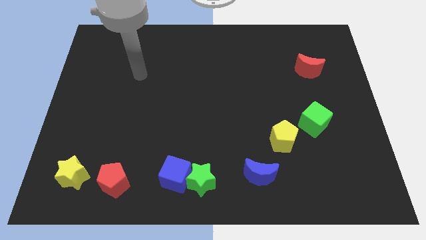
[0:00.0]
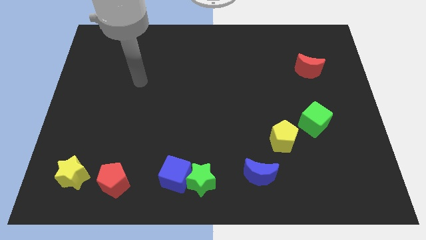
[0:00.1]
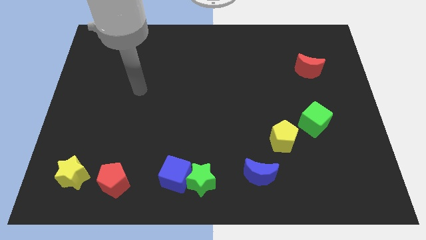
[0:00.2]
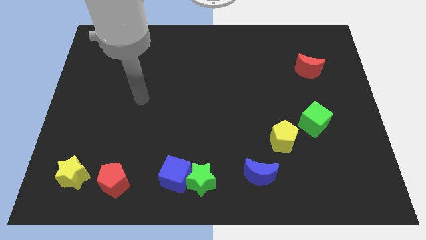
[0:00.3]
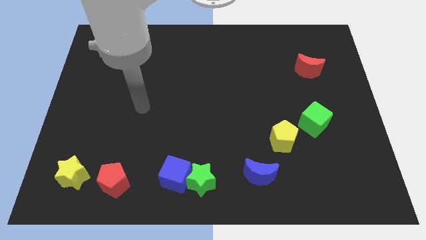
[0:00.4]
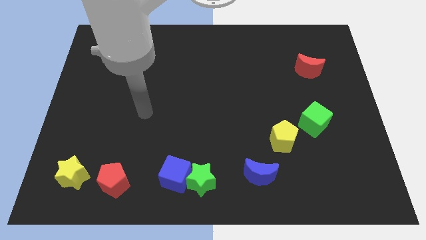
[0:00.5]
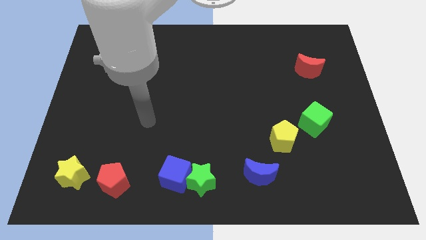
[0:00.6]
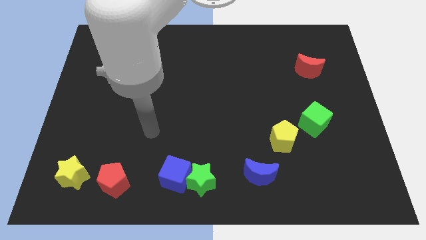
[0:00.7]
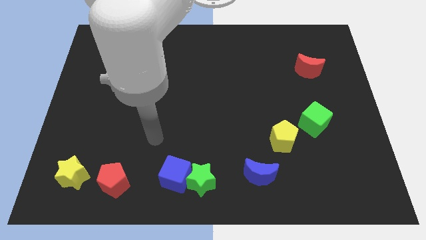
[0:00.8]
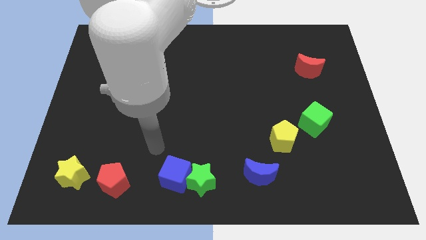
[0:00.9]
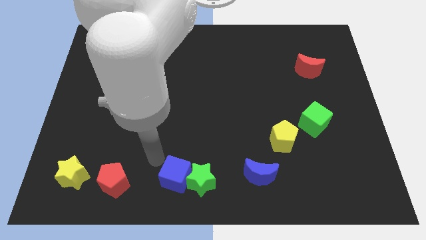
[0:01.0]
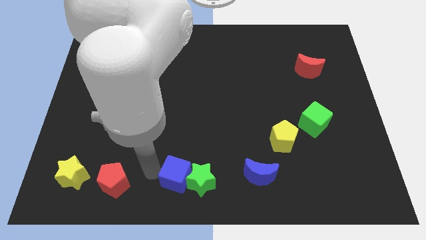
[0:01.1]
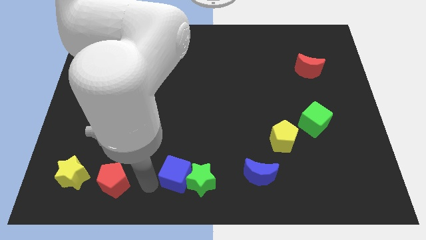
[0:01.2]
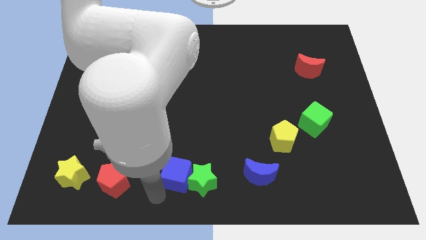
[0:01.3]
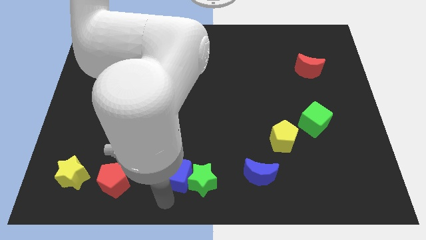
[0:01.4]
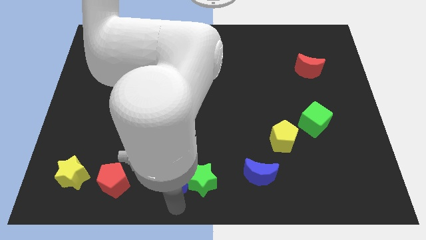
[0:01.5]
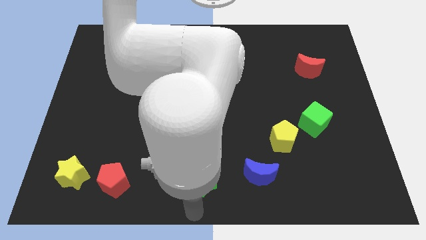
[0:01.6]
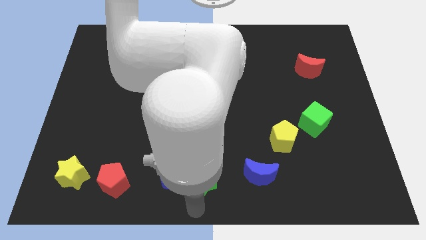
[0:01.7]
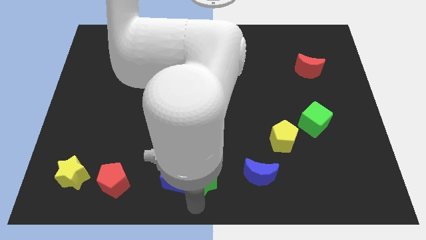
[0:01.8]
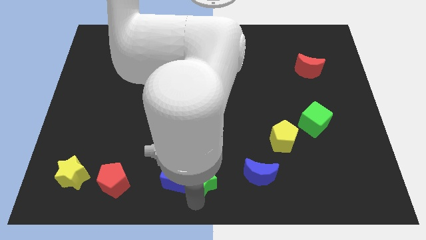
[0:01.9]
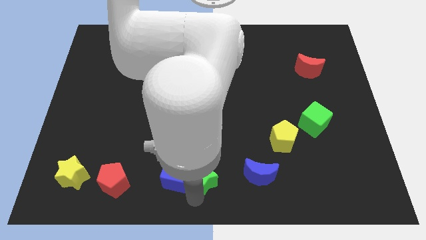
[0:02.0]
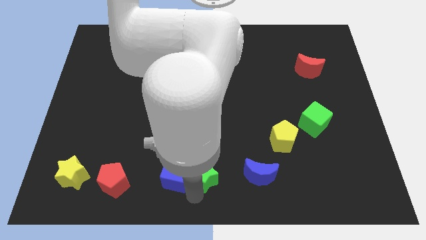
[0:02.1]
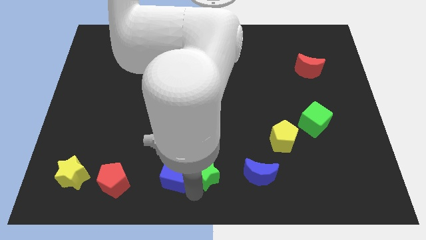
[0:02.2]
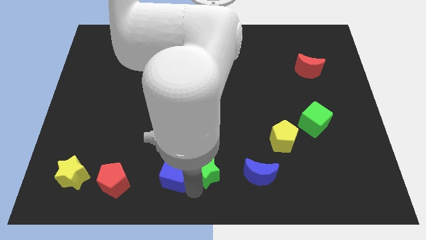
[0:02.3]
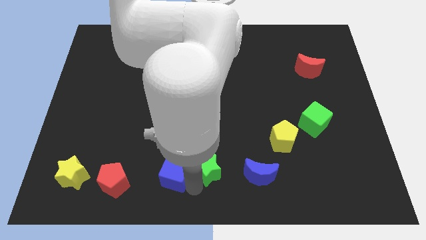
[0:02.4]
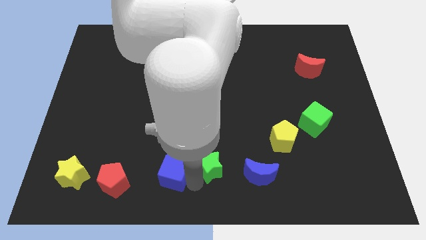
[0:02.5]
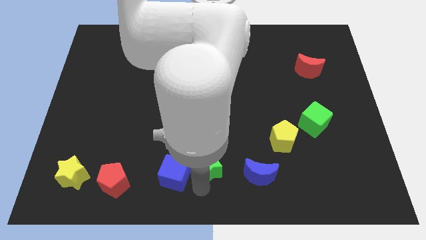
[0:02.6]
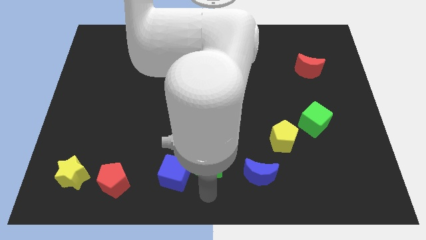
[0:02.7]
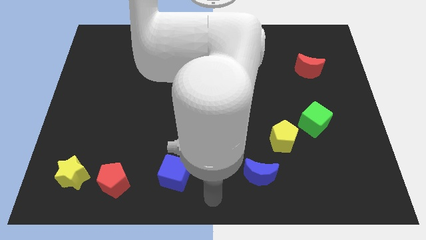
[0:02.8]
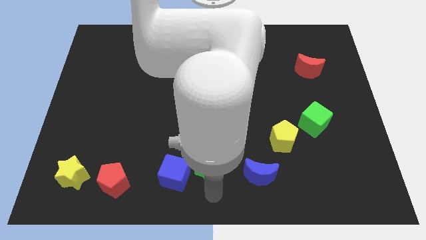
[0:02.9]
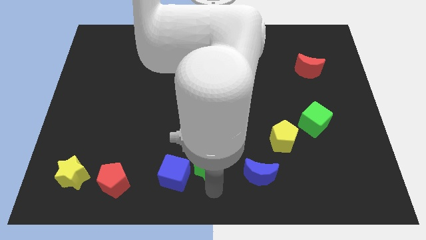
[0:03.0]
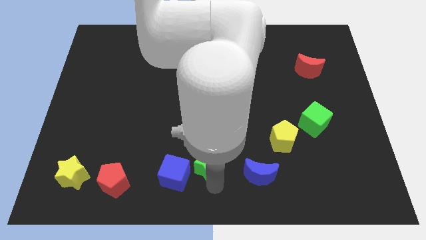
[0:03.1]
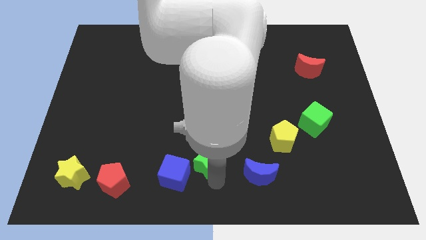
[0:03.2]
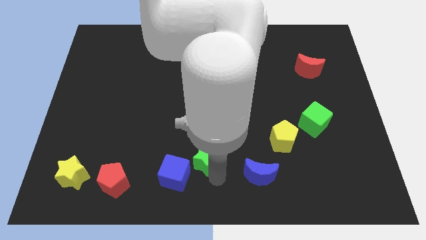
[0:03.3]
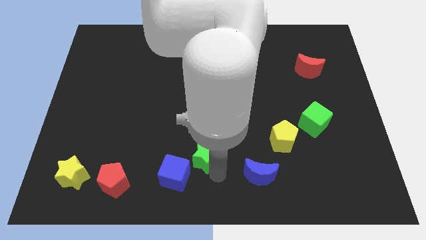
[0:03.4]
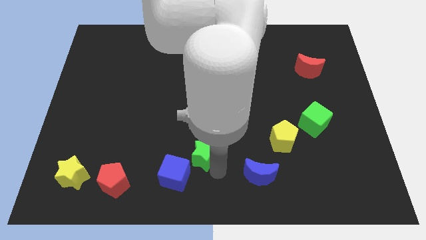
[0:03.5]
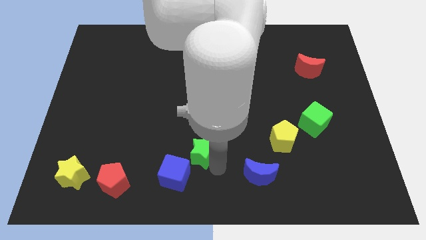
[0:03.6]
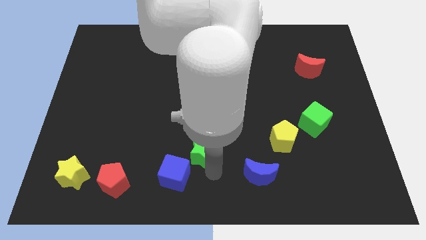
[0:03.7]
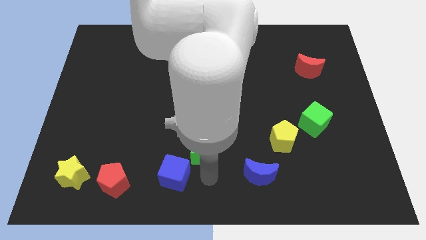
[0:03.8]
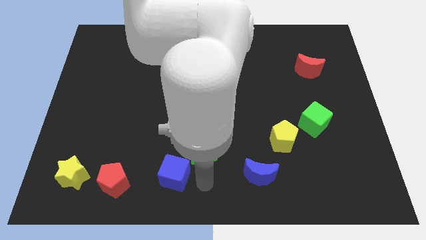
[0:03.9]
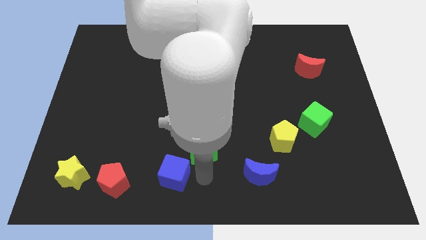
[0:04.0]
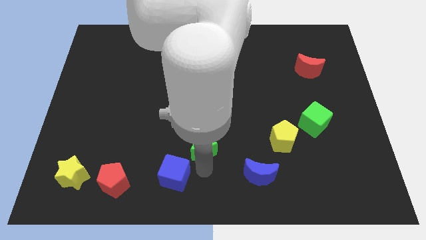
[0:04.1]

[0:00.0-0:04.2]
push the green star upwards a little

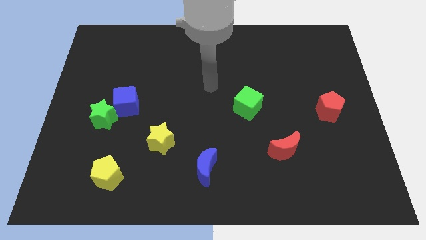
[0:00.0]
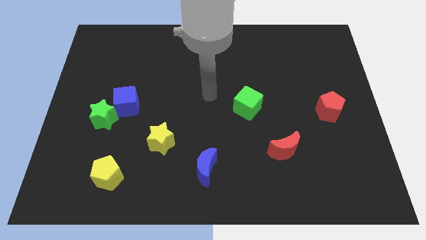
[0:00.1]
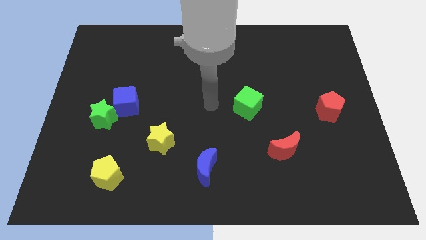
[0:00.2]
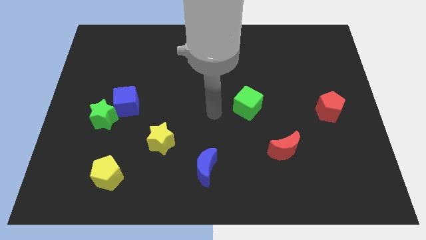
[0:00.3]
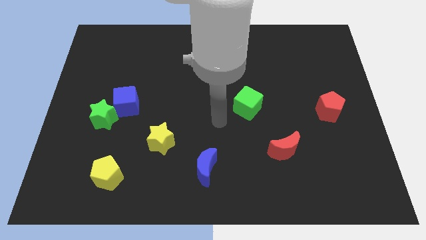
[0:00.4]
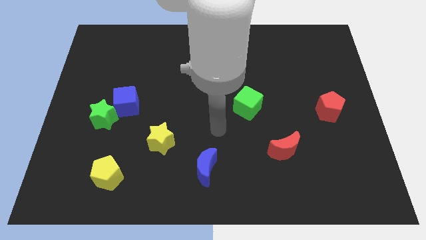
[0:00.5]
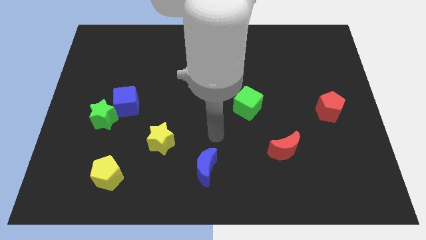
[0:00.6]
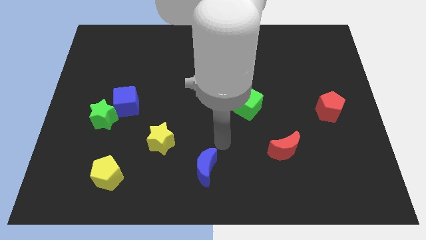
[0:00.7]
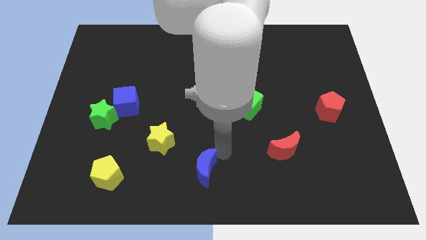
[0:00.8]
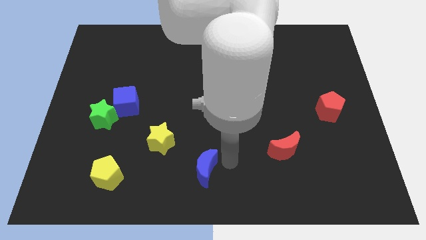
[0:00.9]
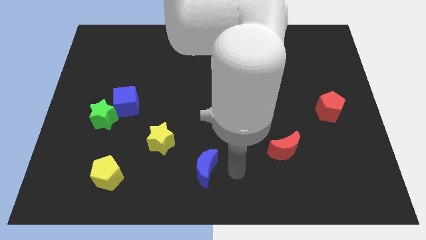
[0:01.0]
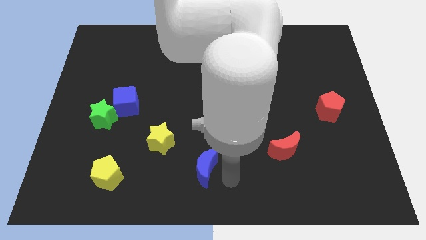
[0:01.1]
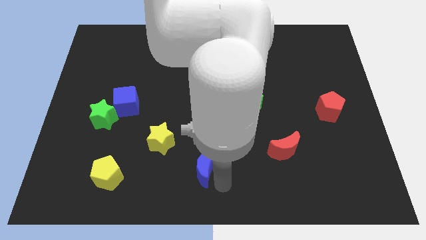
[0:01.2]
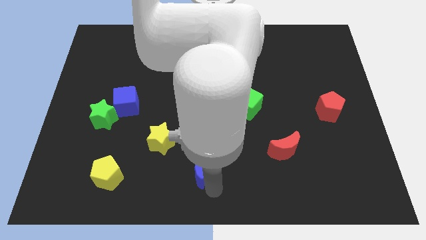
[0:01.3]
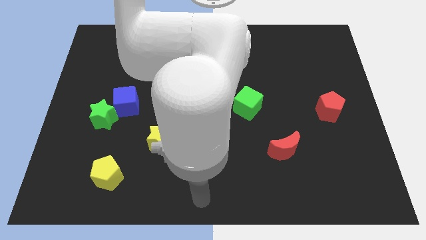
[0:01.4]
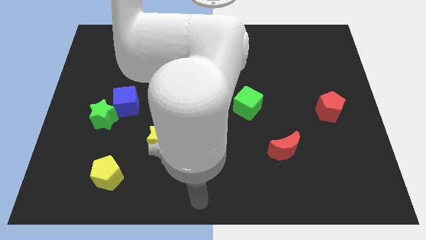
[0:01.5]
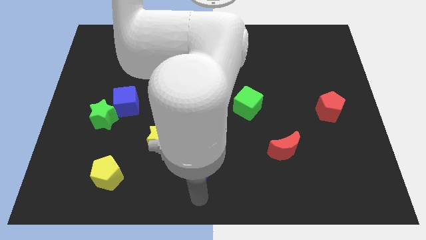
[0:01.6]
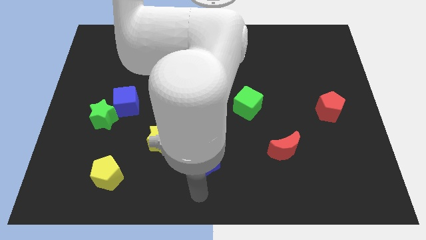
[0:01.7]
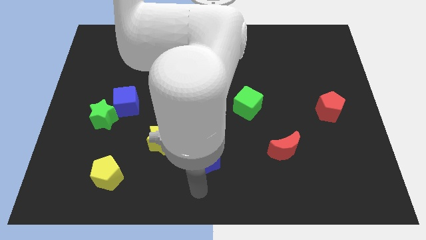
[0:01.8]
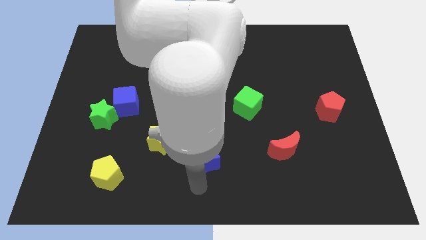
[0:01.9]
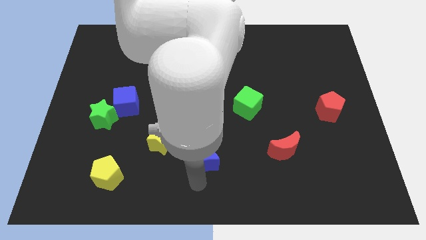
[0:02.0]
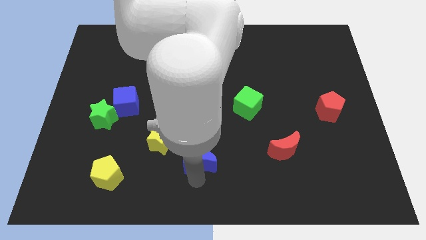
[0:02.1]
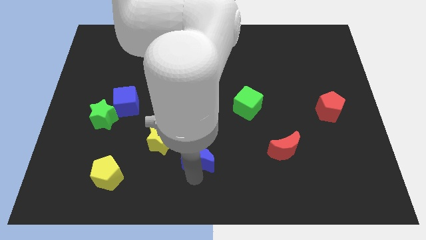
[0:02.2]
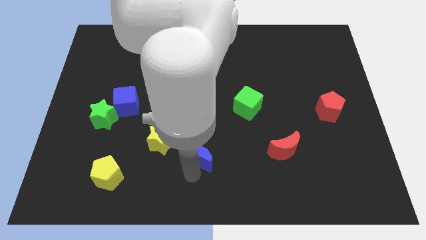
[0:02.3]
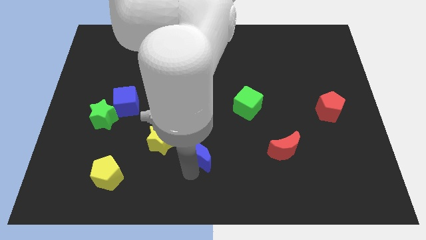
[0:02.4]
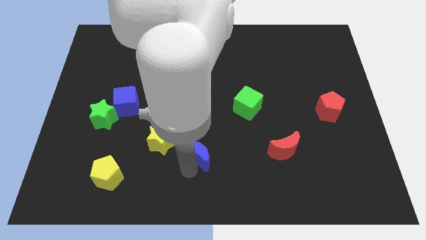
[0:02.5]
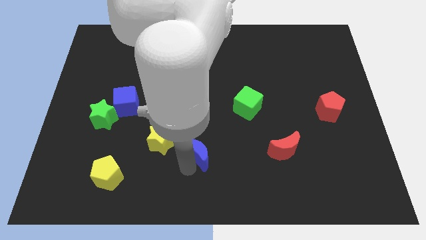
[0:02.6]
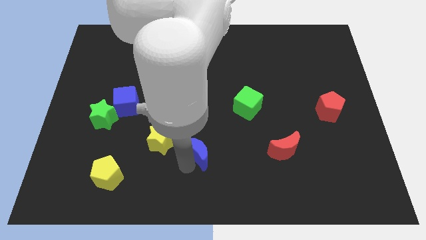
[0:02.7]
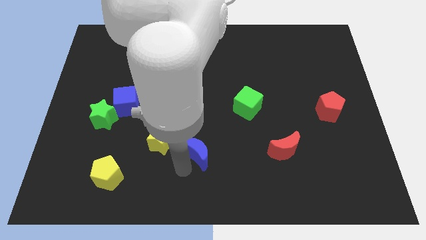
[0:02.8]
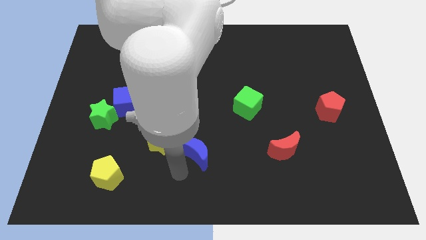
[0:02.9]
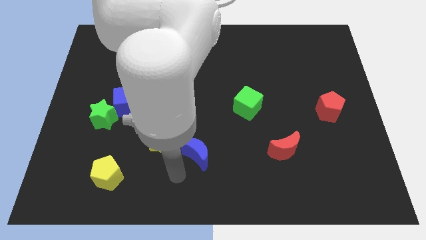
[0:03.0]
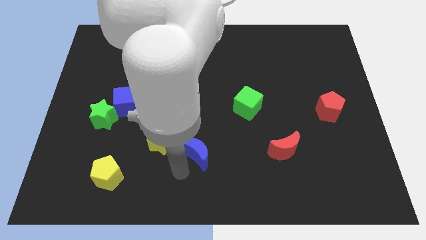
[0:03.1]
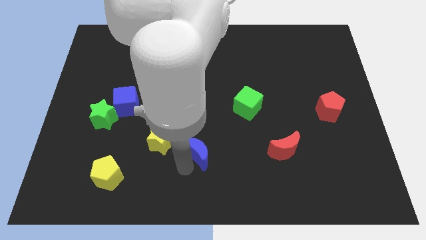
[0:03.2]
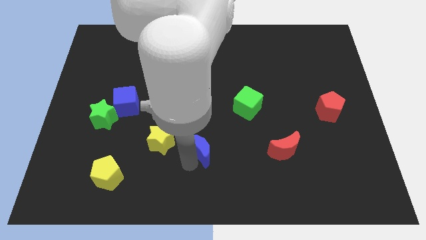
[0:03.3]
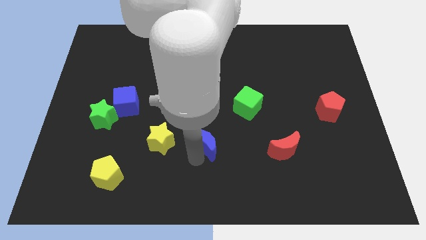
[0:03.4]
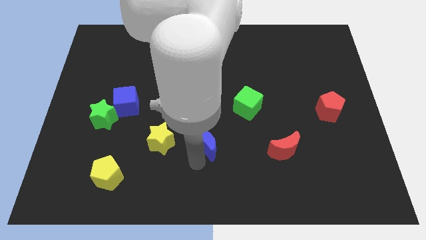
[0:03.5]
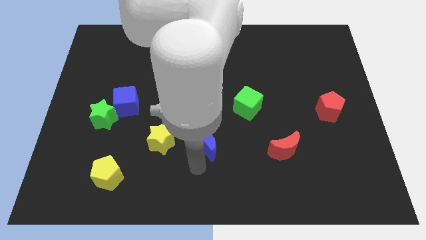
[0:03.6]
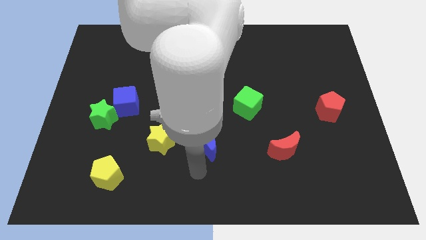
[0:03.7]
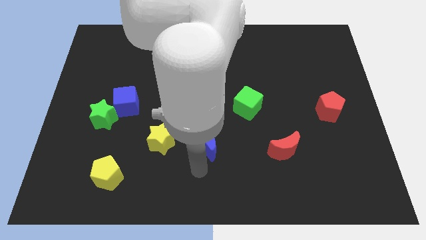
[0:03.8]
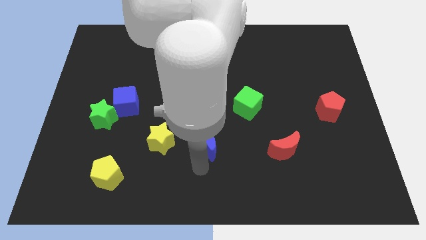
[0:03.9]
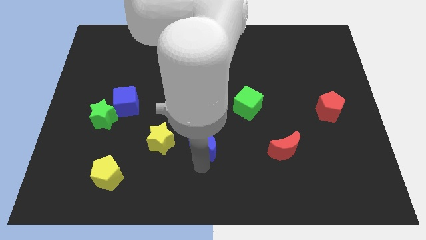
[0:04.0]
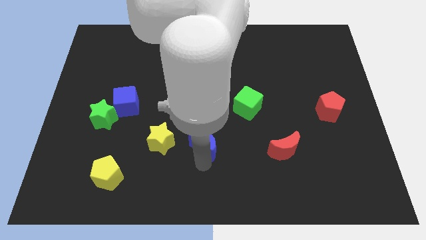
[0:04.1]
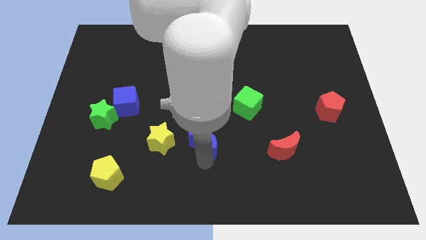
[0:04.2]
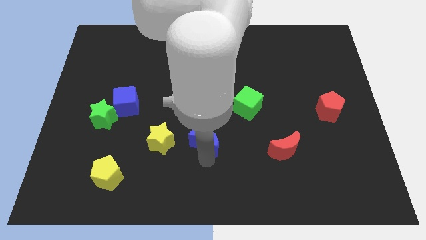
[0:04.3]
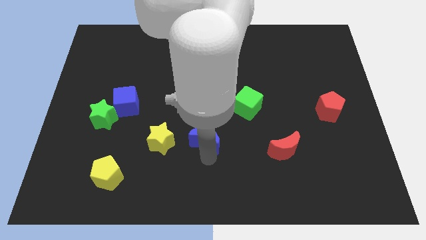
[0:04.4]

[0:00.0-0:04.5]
push the blue moon slightly up
